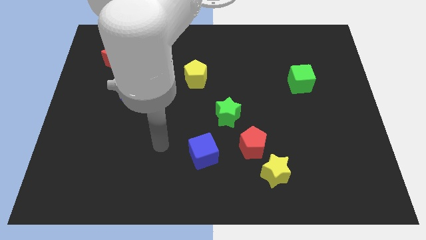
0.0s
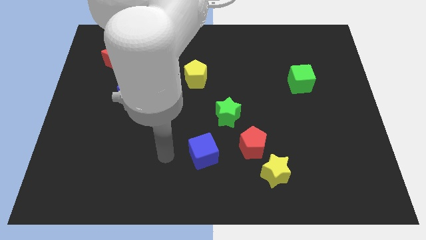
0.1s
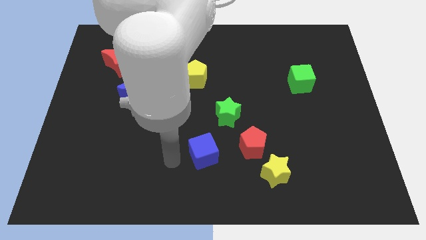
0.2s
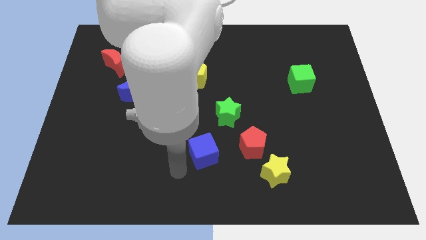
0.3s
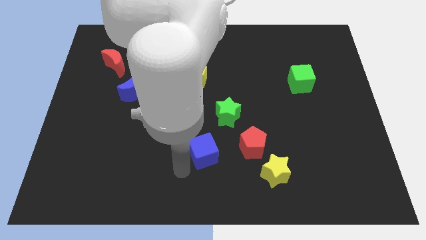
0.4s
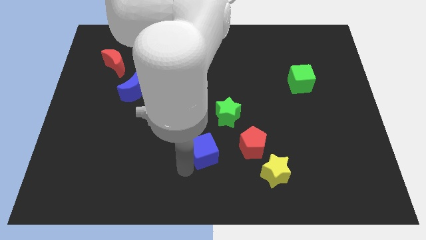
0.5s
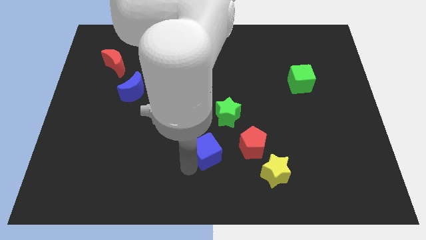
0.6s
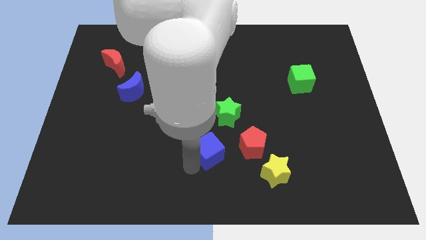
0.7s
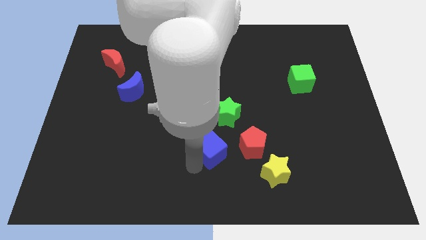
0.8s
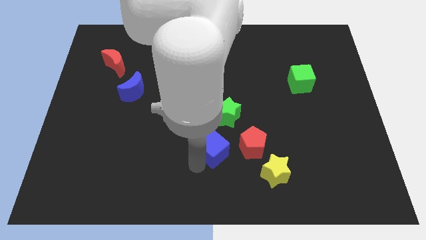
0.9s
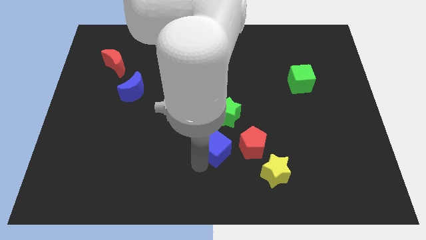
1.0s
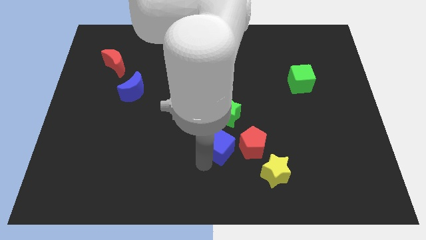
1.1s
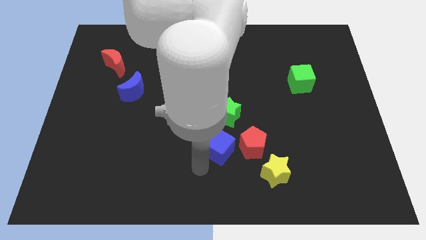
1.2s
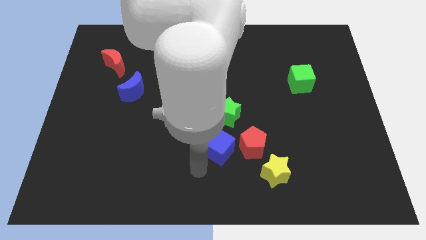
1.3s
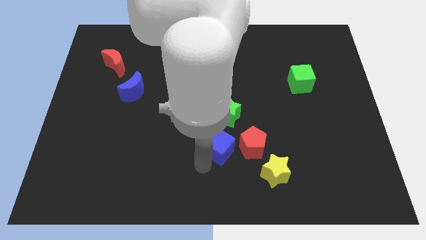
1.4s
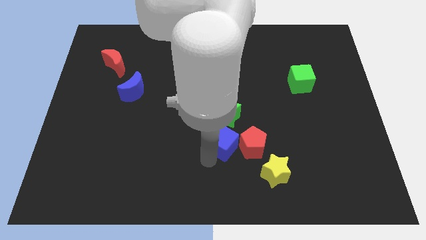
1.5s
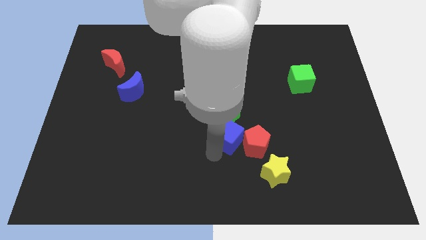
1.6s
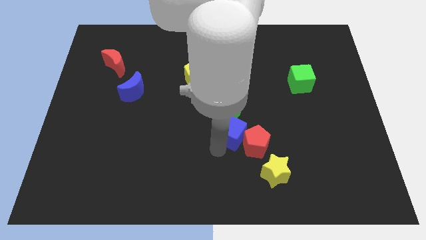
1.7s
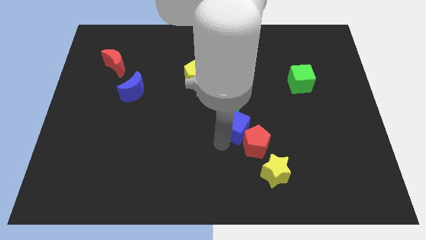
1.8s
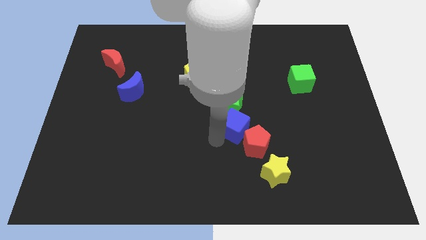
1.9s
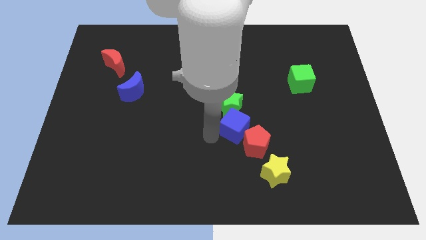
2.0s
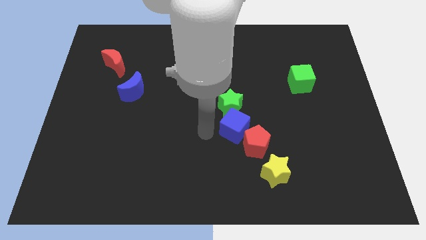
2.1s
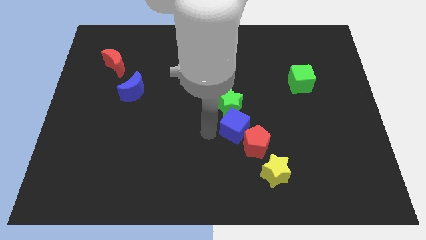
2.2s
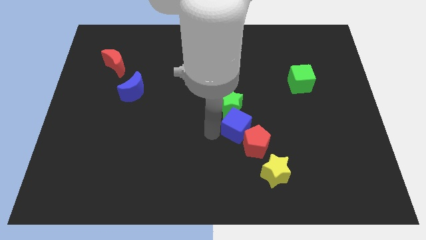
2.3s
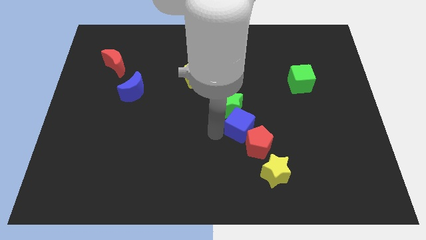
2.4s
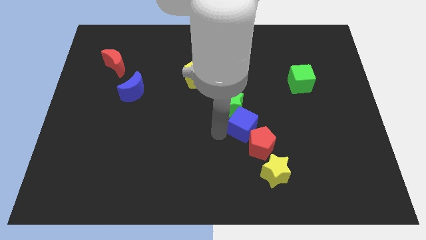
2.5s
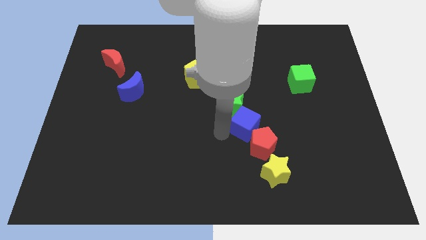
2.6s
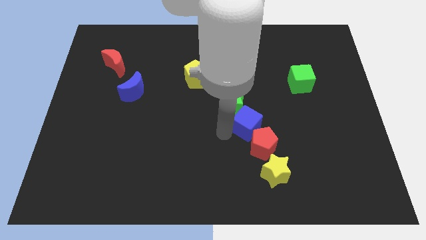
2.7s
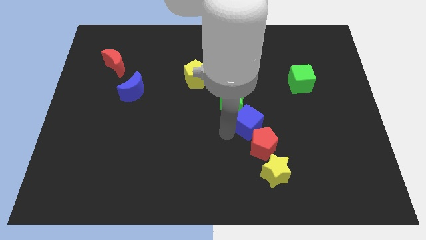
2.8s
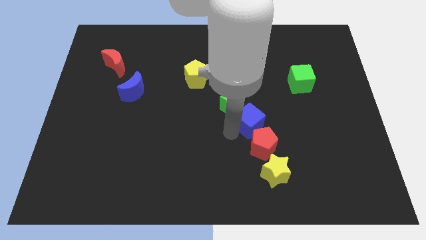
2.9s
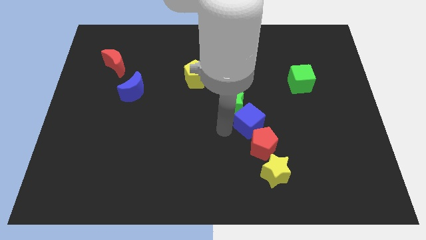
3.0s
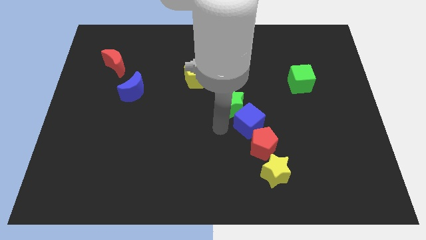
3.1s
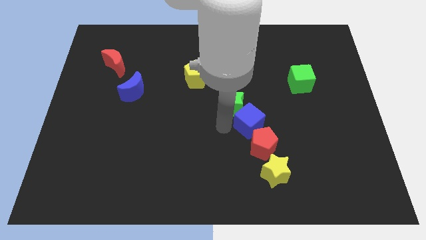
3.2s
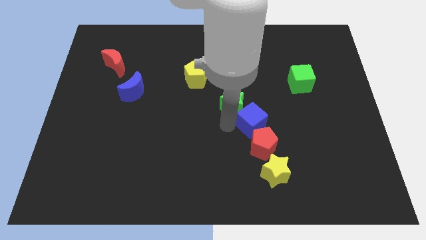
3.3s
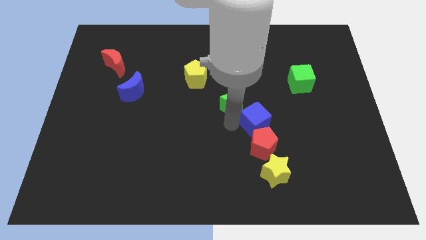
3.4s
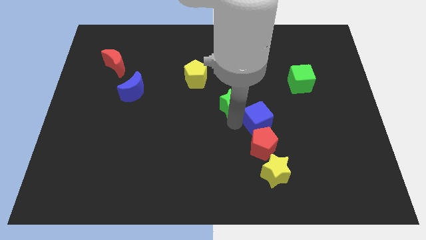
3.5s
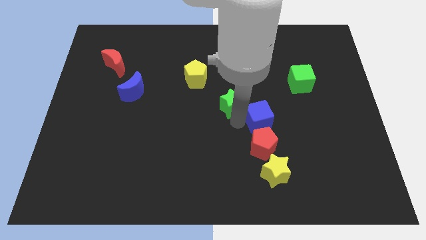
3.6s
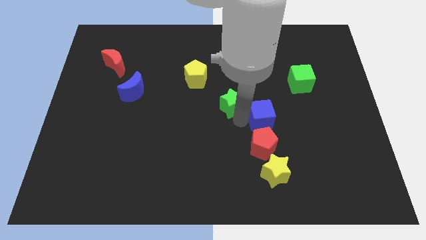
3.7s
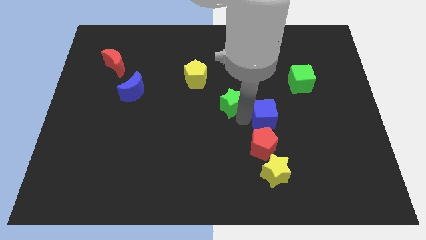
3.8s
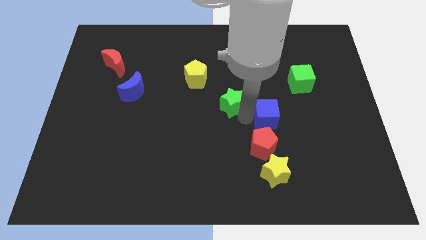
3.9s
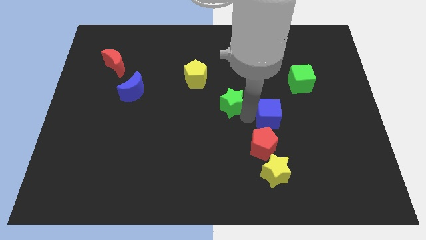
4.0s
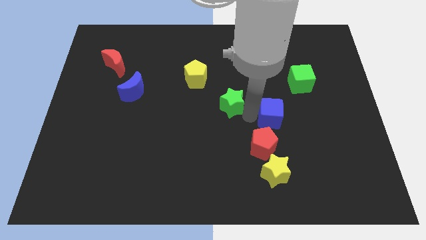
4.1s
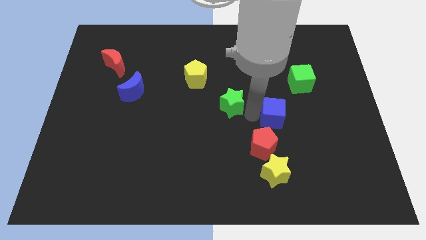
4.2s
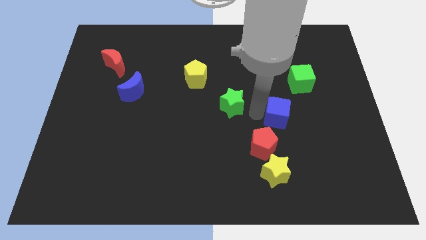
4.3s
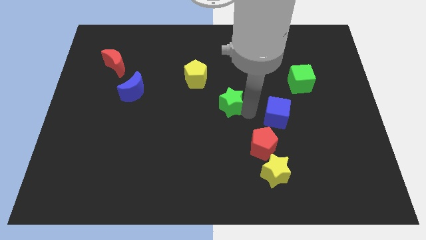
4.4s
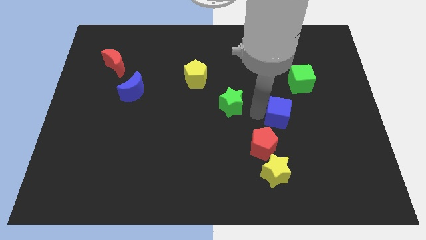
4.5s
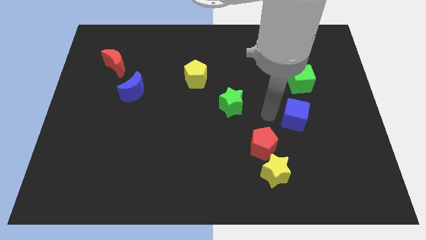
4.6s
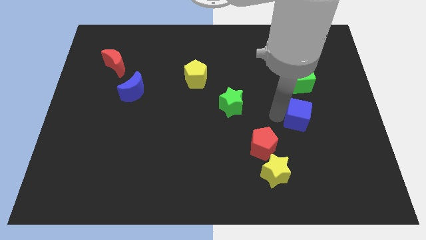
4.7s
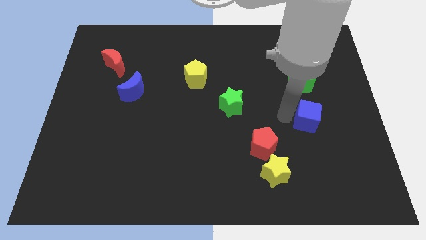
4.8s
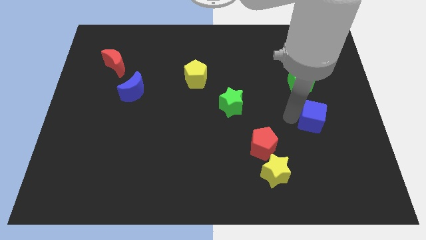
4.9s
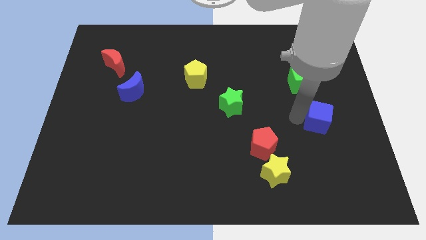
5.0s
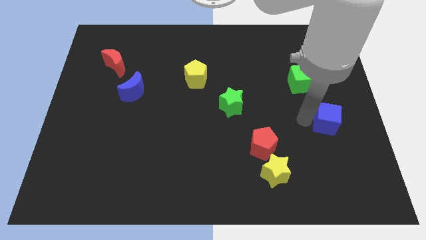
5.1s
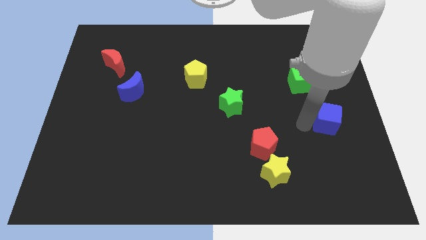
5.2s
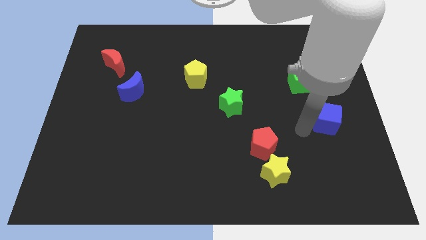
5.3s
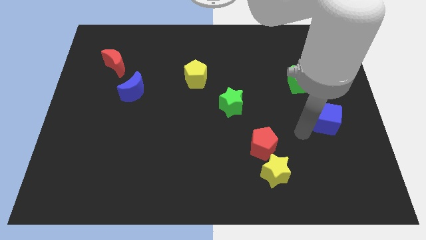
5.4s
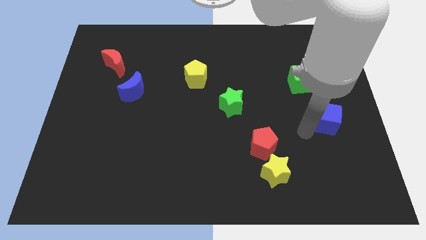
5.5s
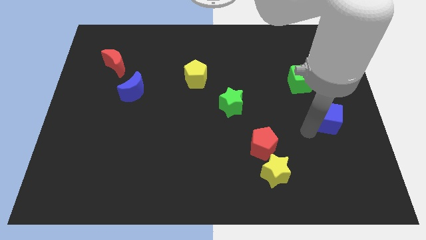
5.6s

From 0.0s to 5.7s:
slide the blue cube to the right side

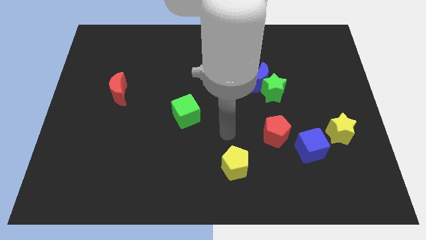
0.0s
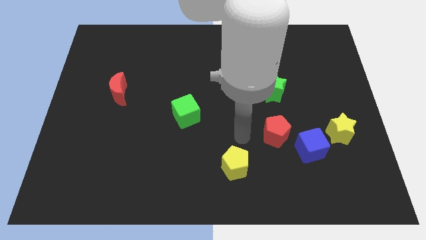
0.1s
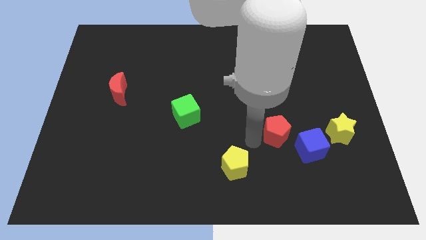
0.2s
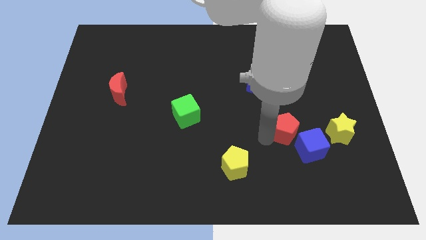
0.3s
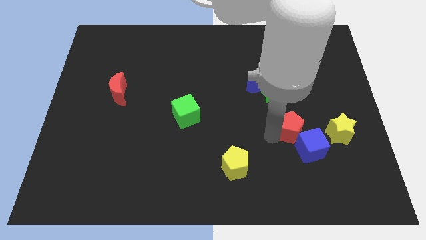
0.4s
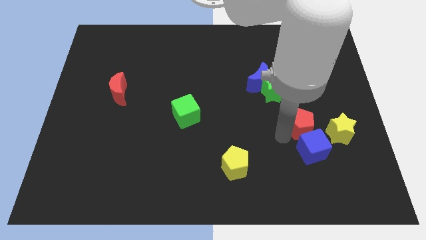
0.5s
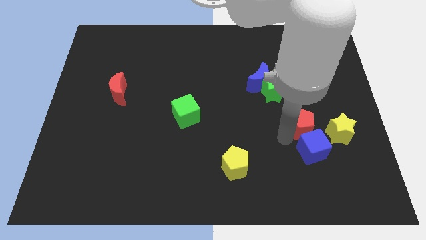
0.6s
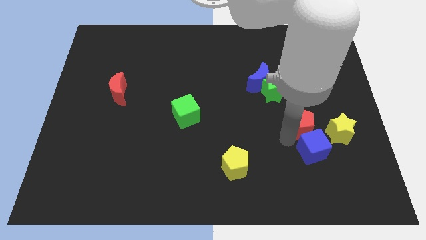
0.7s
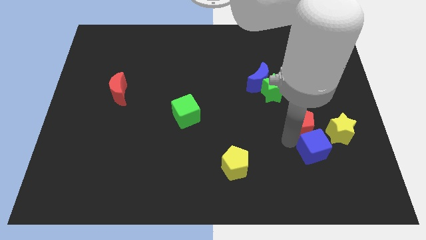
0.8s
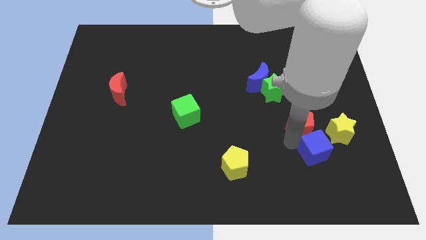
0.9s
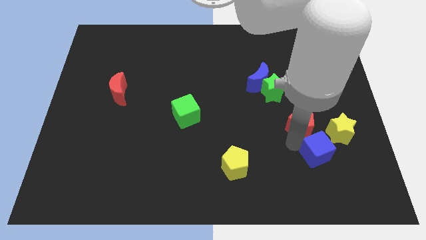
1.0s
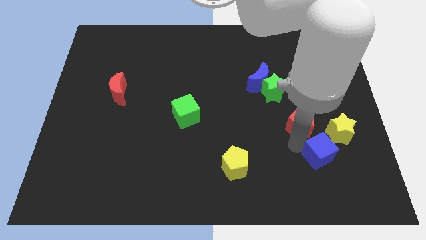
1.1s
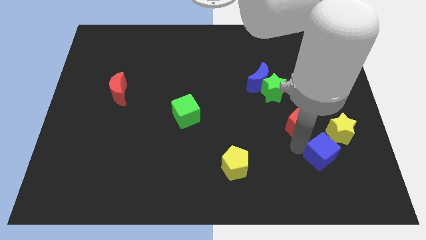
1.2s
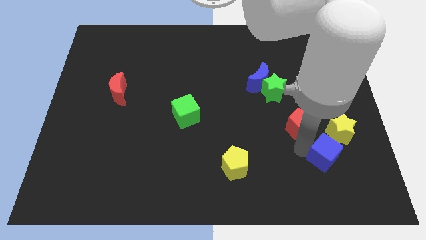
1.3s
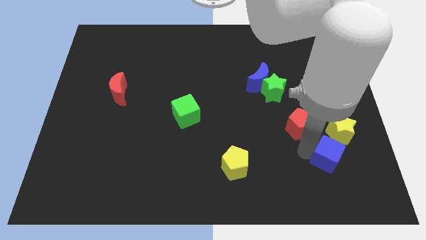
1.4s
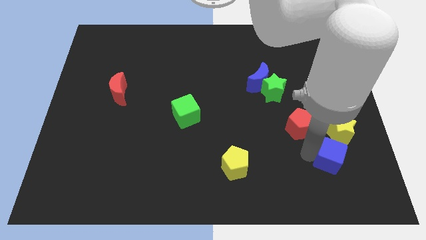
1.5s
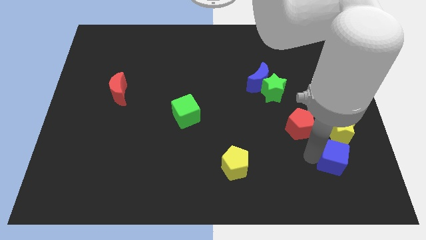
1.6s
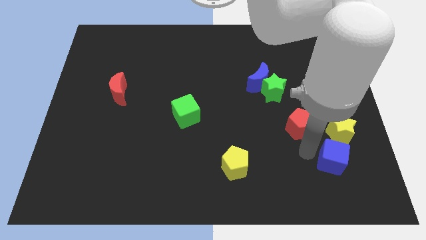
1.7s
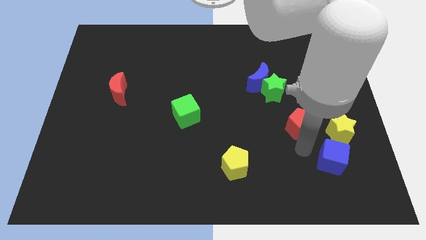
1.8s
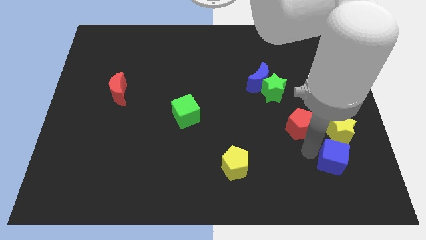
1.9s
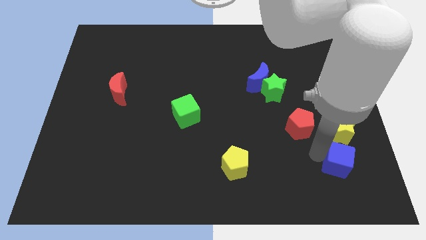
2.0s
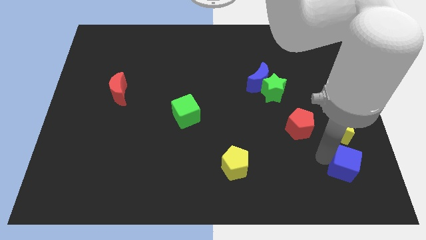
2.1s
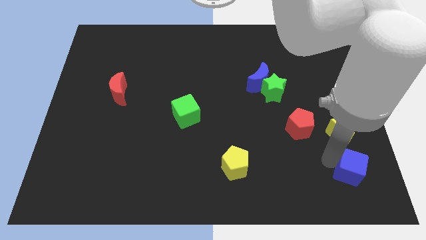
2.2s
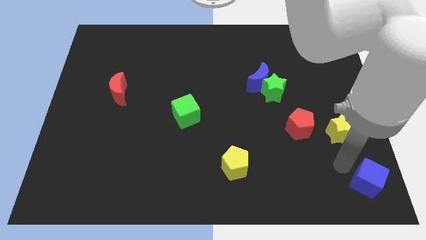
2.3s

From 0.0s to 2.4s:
move the blue cube to the bottom right of the board
